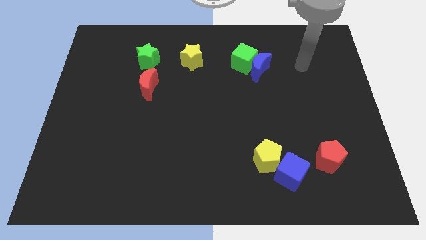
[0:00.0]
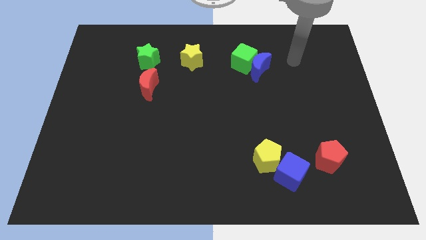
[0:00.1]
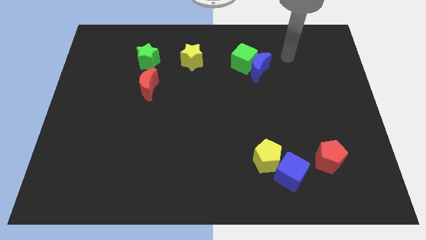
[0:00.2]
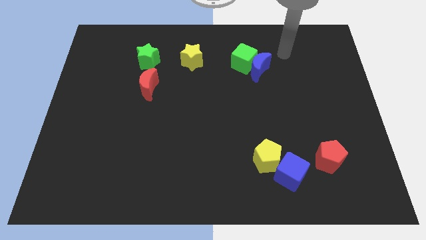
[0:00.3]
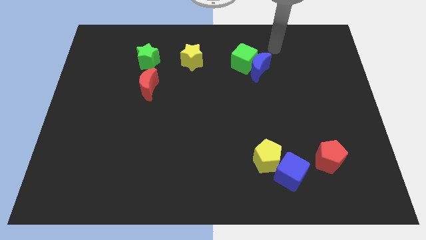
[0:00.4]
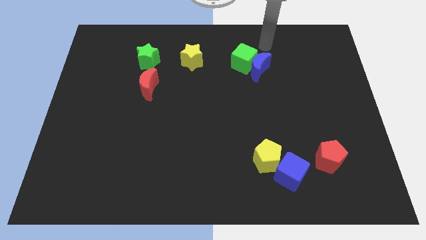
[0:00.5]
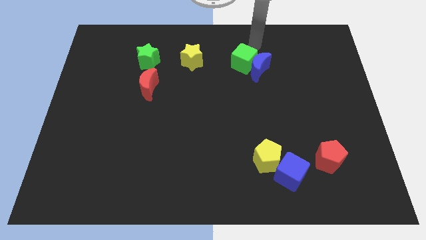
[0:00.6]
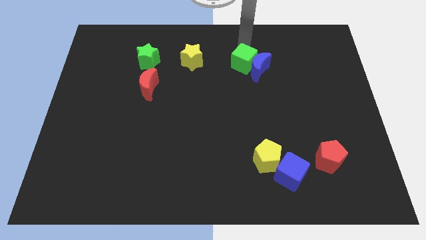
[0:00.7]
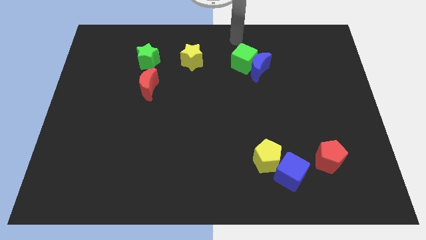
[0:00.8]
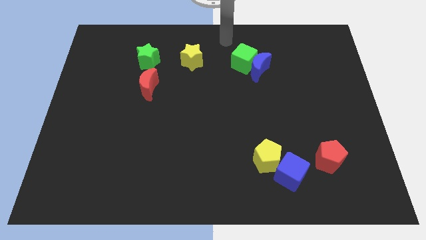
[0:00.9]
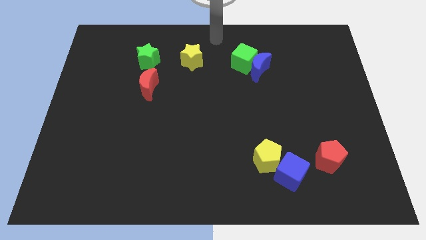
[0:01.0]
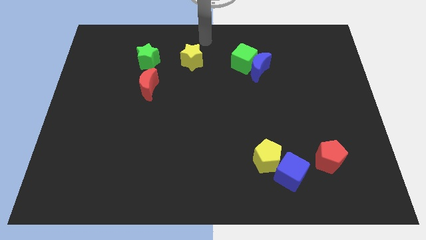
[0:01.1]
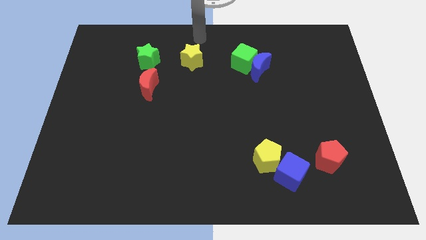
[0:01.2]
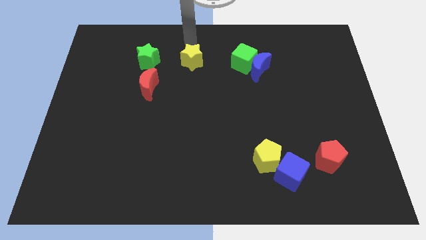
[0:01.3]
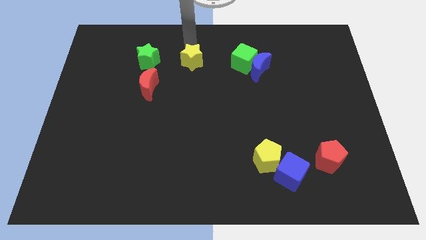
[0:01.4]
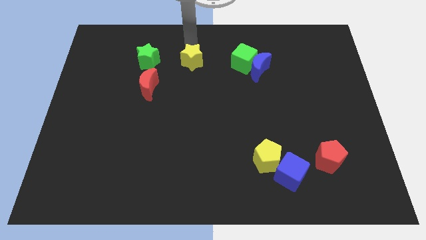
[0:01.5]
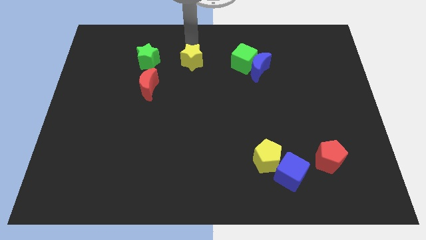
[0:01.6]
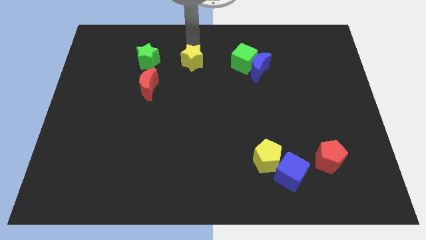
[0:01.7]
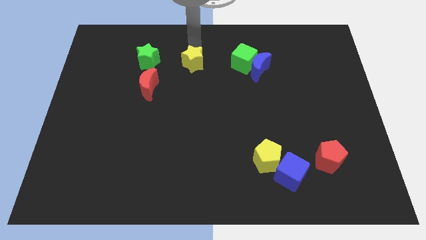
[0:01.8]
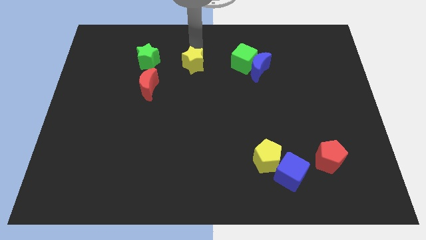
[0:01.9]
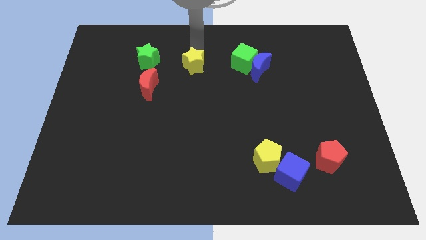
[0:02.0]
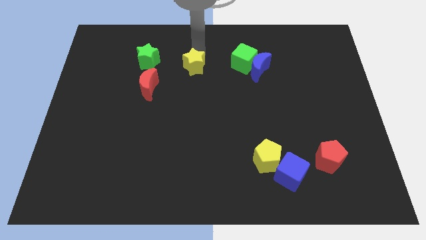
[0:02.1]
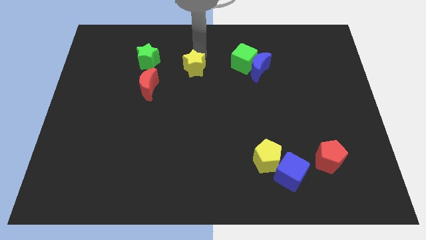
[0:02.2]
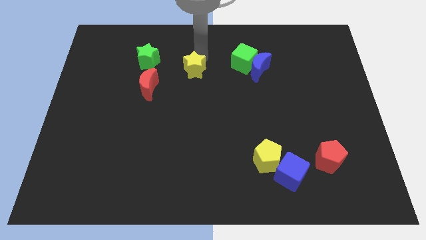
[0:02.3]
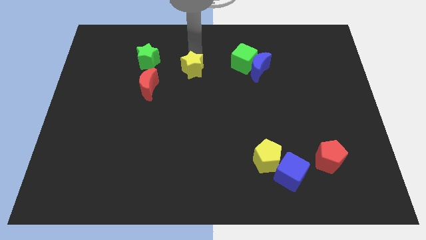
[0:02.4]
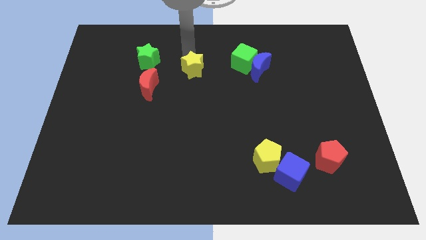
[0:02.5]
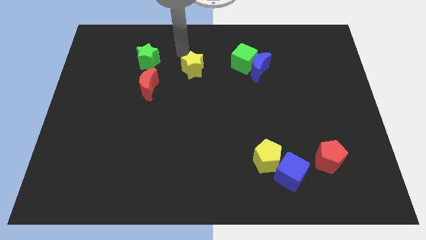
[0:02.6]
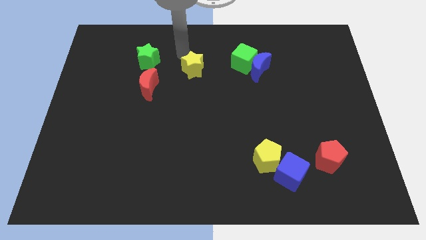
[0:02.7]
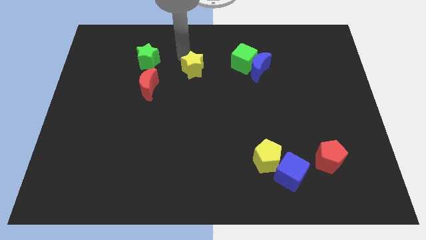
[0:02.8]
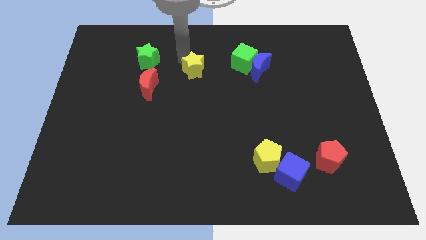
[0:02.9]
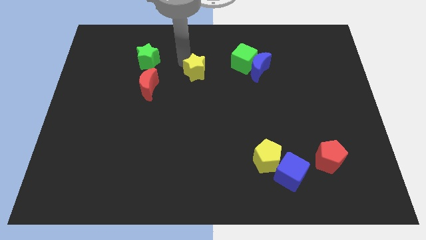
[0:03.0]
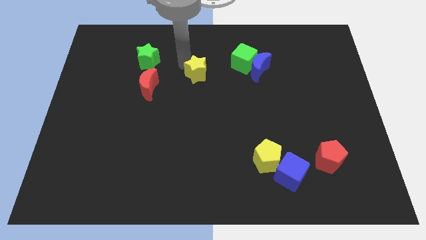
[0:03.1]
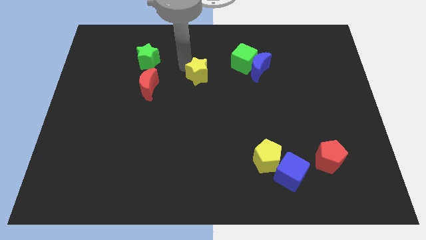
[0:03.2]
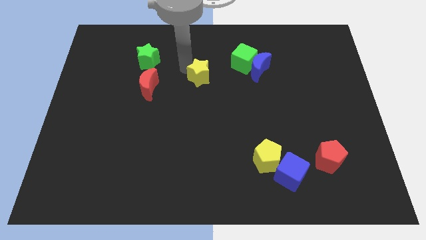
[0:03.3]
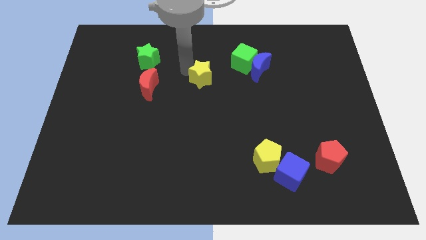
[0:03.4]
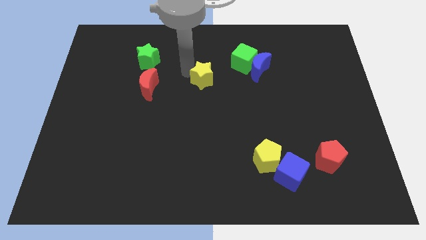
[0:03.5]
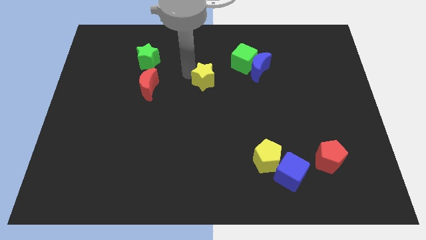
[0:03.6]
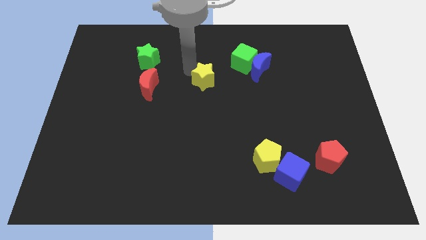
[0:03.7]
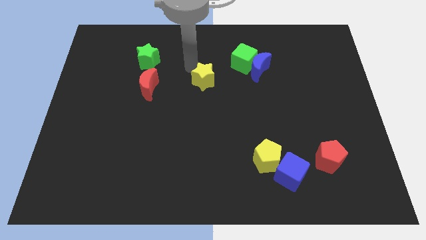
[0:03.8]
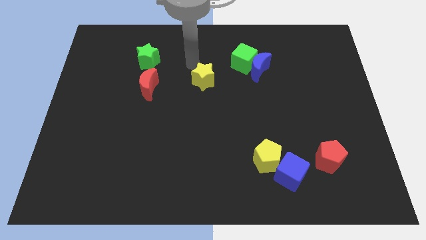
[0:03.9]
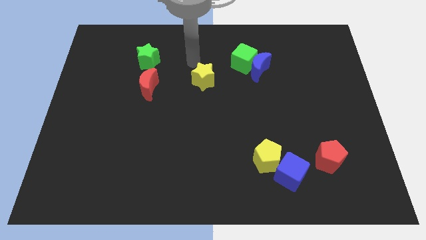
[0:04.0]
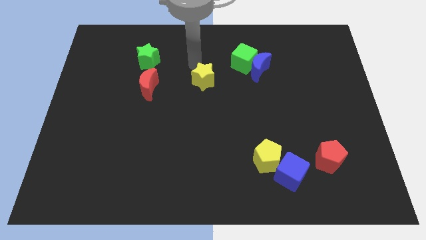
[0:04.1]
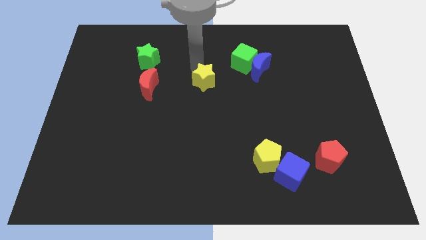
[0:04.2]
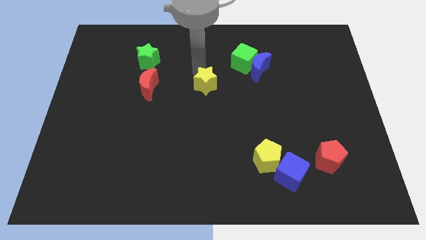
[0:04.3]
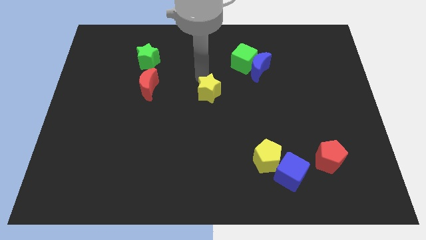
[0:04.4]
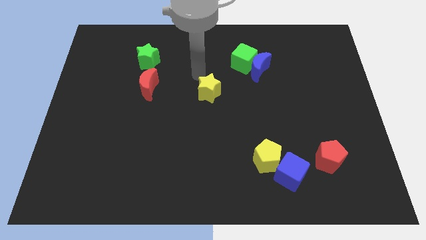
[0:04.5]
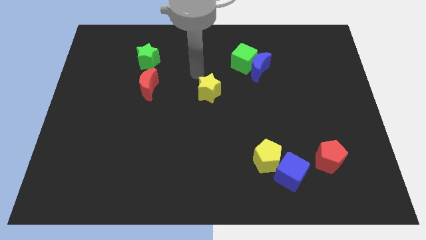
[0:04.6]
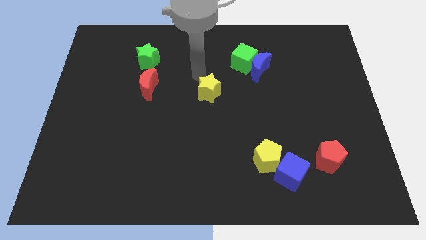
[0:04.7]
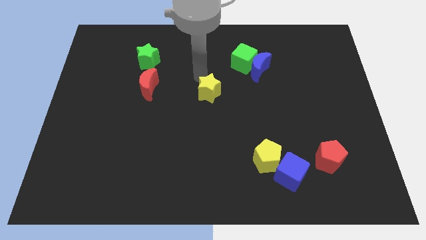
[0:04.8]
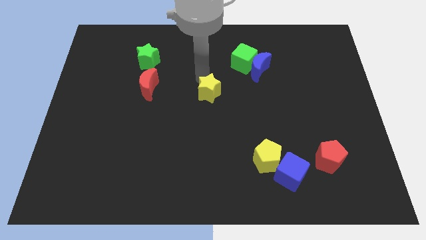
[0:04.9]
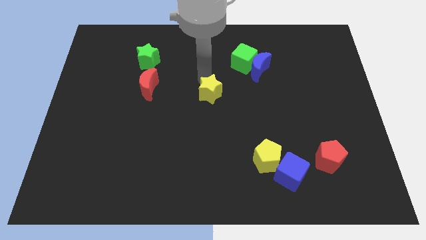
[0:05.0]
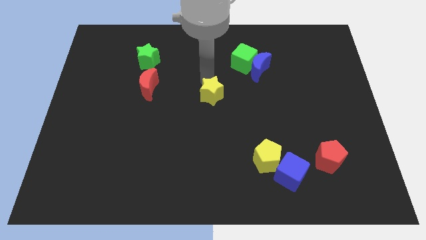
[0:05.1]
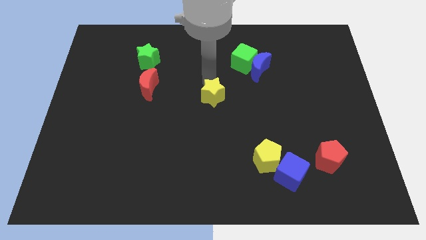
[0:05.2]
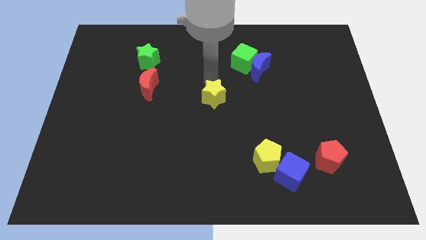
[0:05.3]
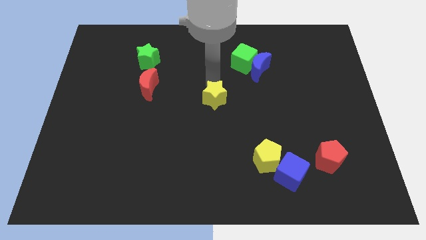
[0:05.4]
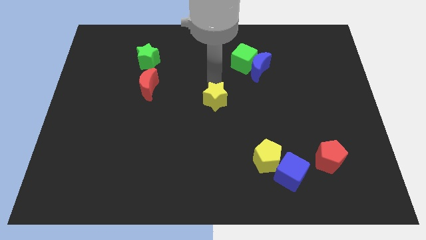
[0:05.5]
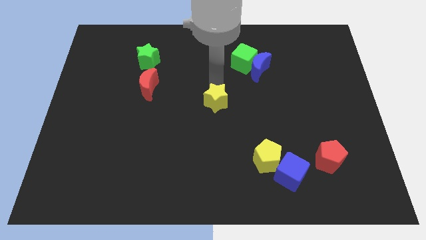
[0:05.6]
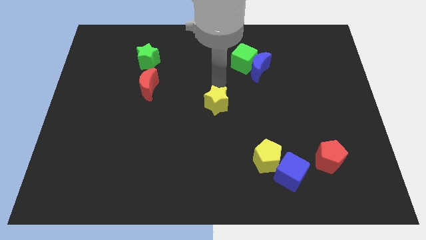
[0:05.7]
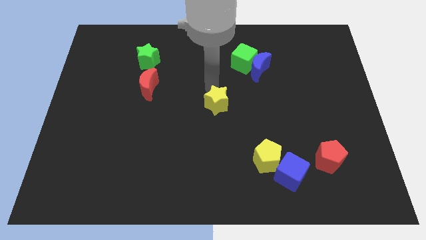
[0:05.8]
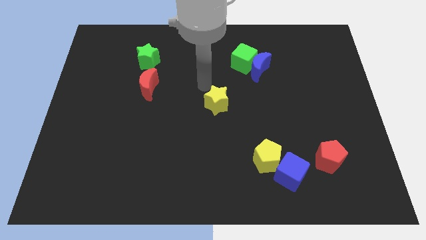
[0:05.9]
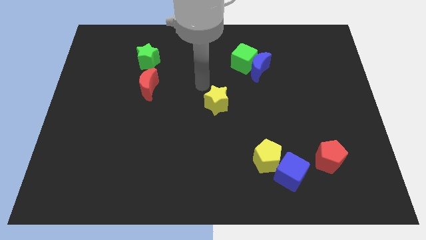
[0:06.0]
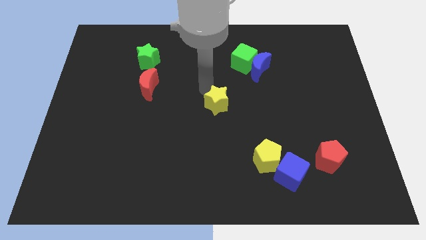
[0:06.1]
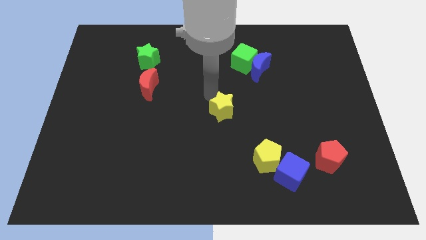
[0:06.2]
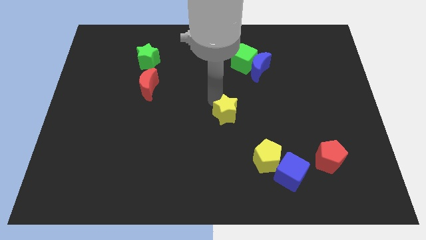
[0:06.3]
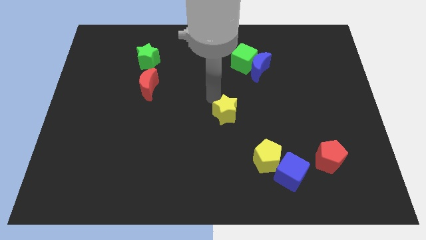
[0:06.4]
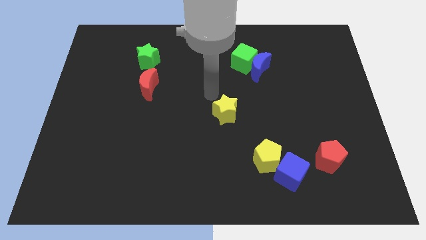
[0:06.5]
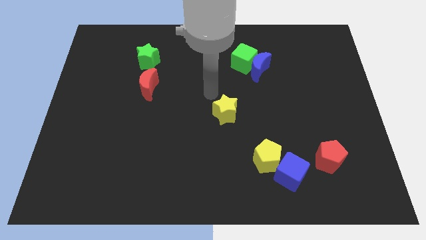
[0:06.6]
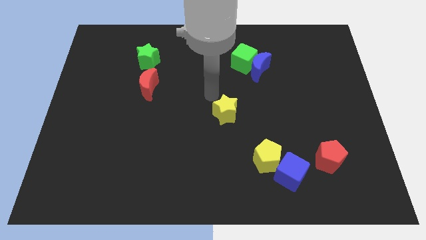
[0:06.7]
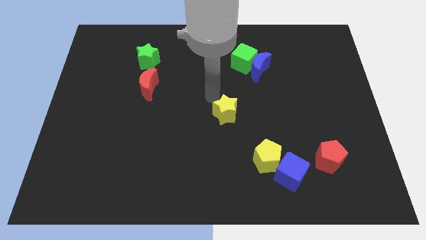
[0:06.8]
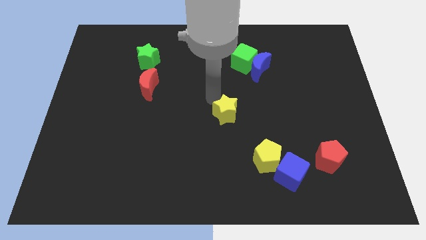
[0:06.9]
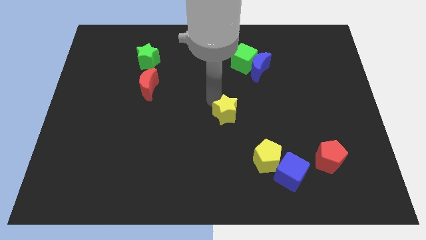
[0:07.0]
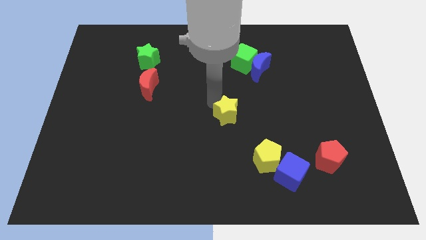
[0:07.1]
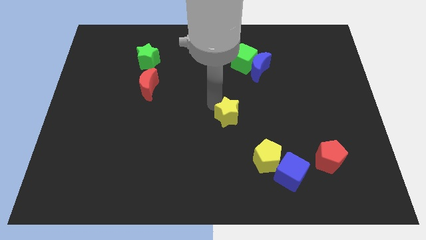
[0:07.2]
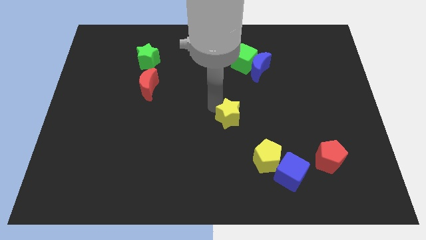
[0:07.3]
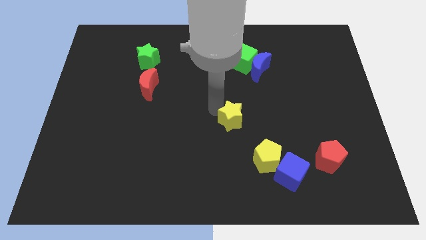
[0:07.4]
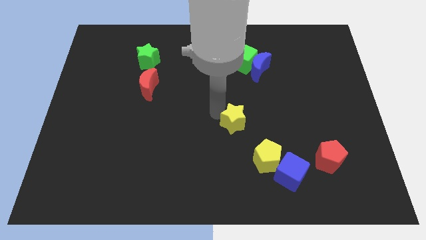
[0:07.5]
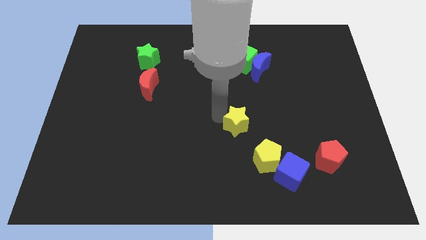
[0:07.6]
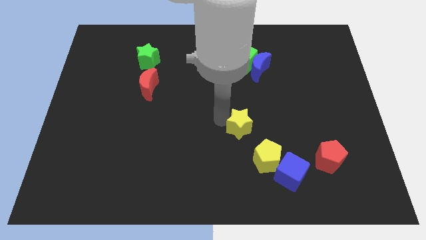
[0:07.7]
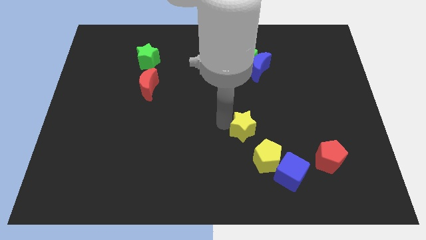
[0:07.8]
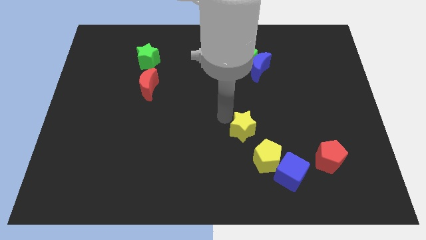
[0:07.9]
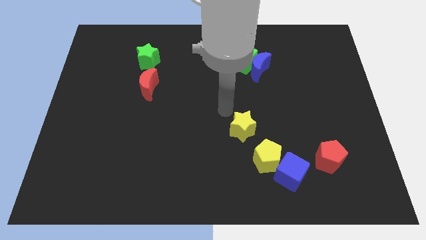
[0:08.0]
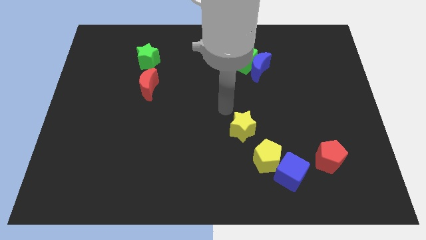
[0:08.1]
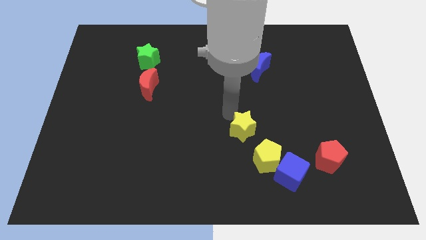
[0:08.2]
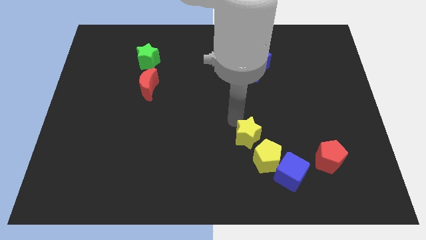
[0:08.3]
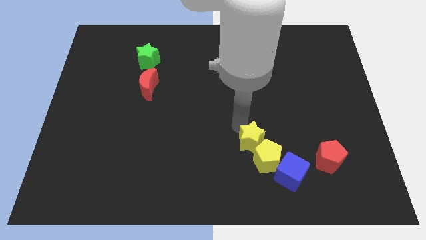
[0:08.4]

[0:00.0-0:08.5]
slide the yellow star to the yellow pentagon
